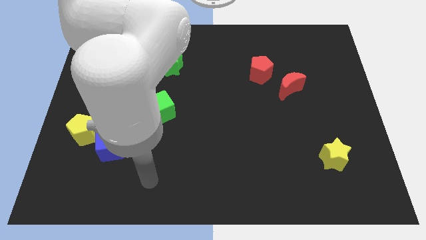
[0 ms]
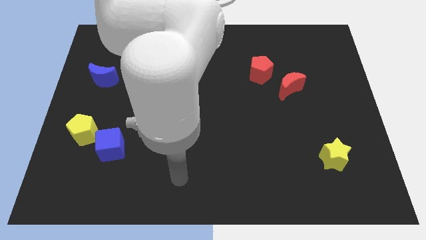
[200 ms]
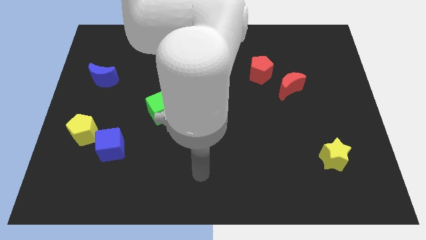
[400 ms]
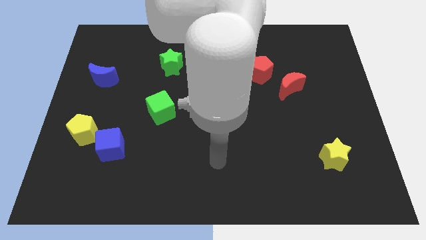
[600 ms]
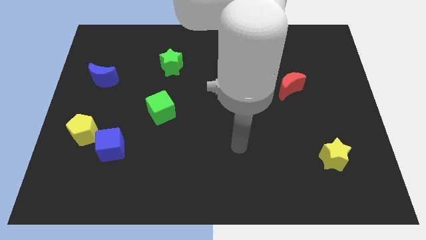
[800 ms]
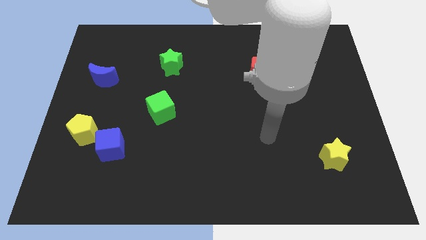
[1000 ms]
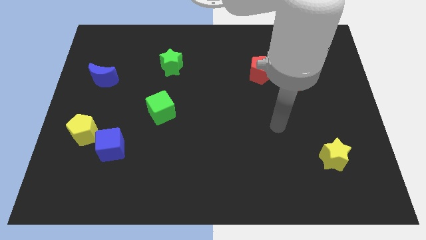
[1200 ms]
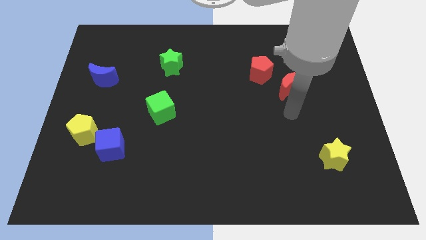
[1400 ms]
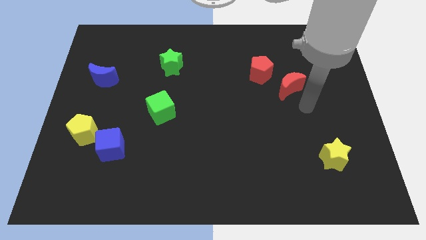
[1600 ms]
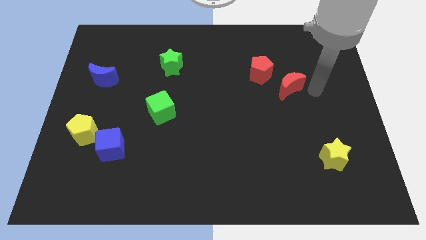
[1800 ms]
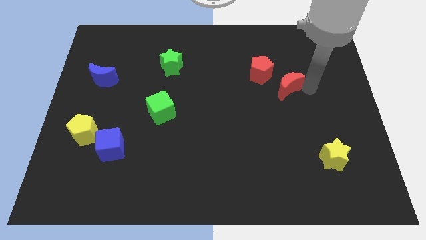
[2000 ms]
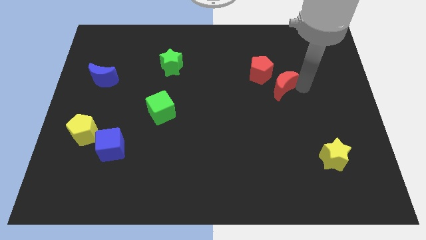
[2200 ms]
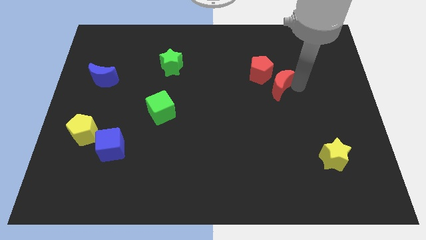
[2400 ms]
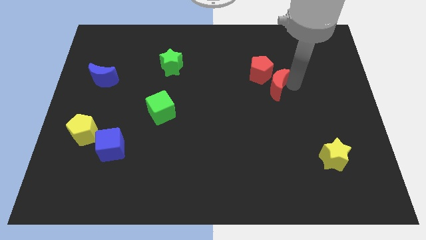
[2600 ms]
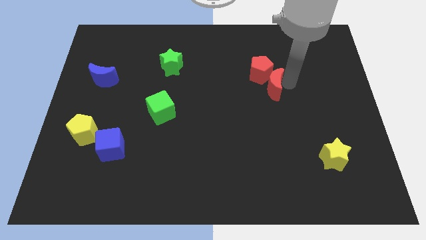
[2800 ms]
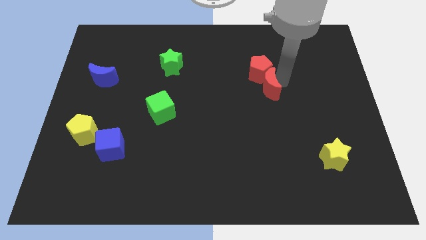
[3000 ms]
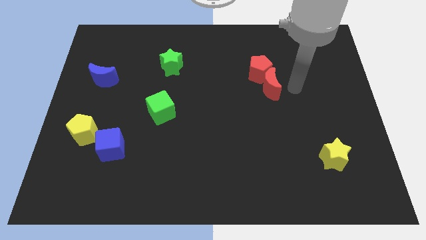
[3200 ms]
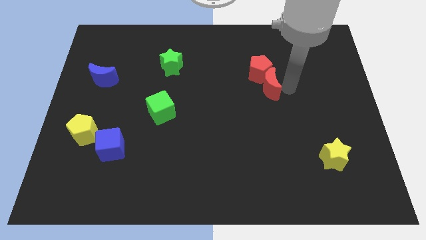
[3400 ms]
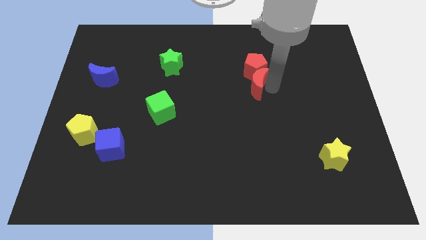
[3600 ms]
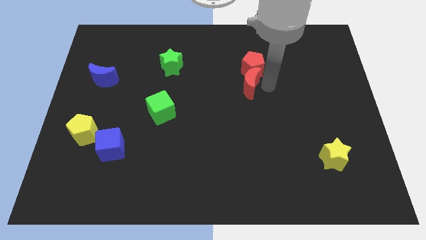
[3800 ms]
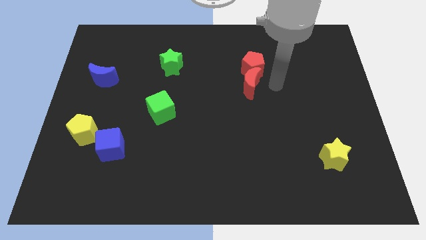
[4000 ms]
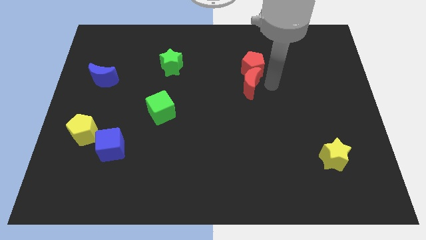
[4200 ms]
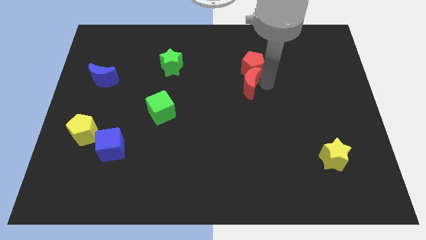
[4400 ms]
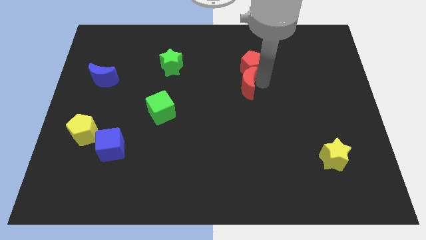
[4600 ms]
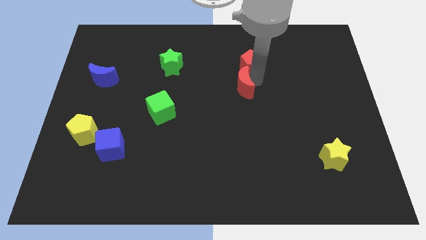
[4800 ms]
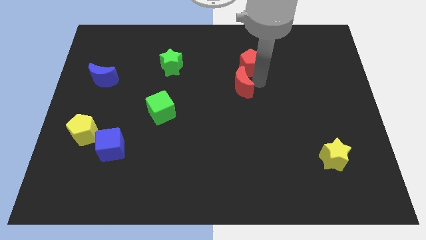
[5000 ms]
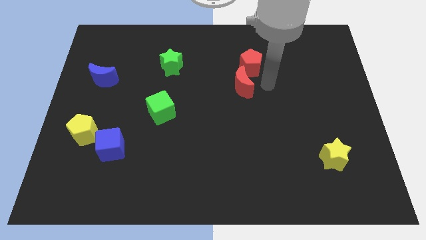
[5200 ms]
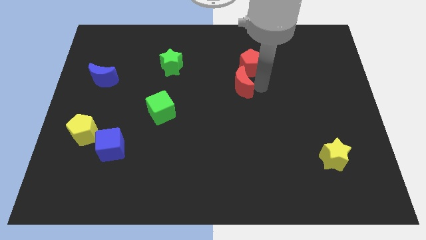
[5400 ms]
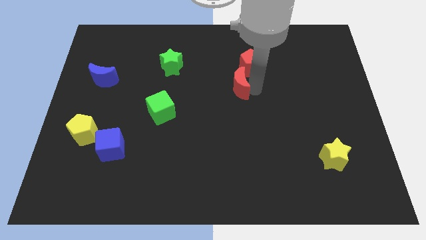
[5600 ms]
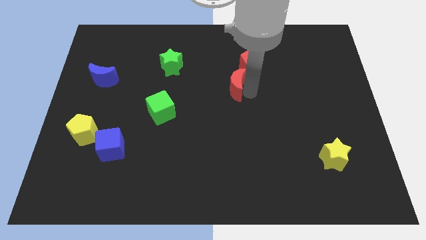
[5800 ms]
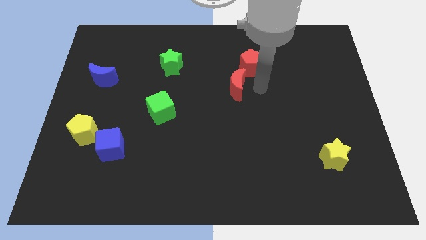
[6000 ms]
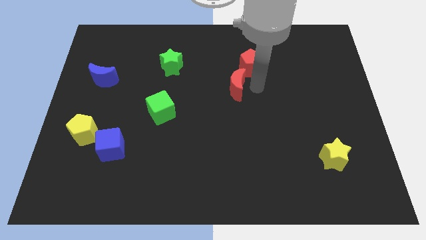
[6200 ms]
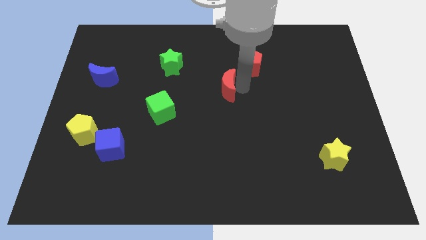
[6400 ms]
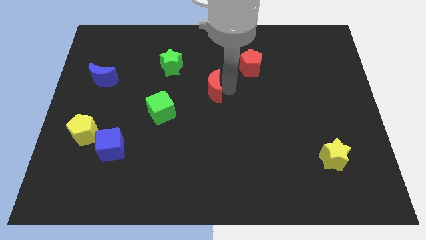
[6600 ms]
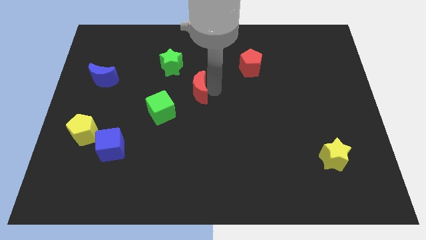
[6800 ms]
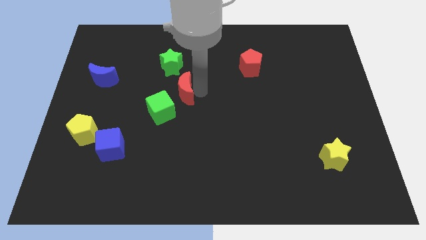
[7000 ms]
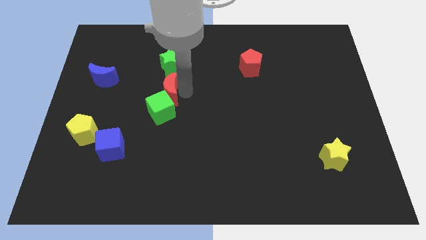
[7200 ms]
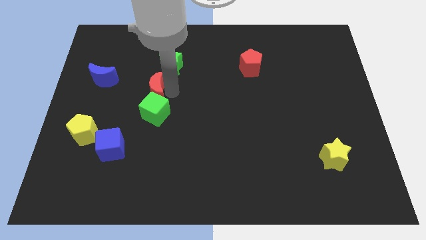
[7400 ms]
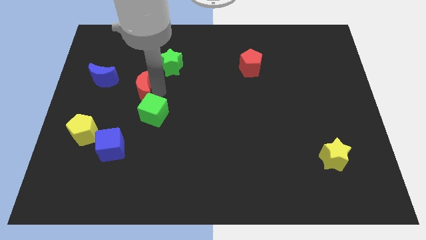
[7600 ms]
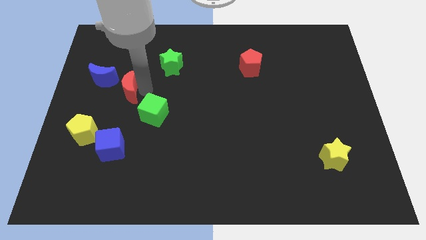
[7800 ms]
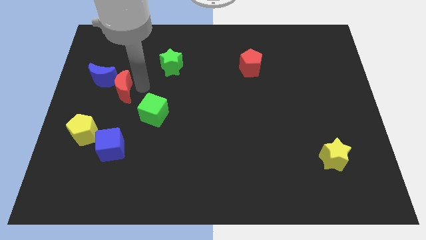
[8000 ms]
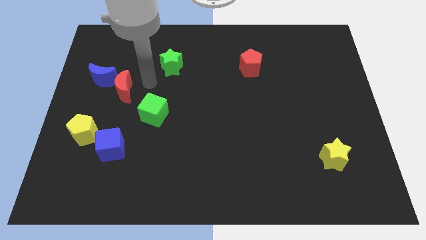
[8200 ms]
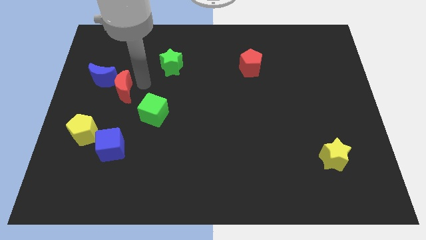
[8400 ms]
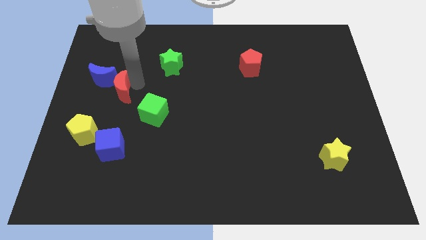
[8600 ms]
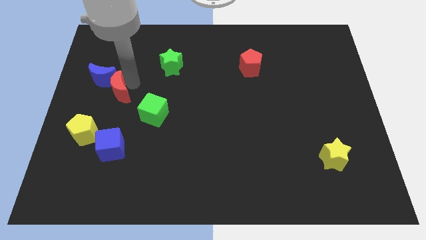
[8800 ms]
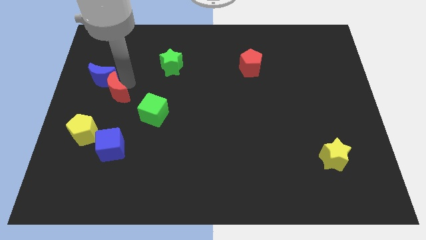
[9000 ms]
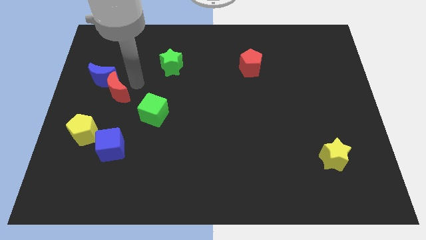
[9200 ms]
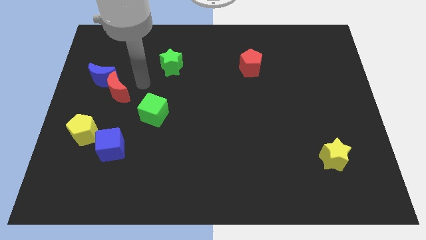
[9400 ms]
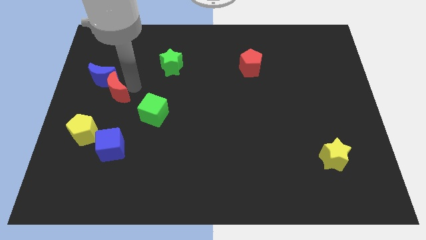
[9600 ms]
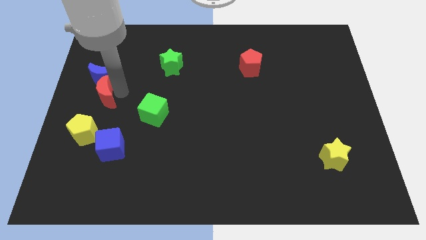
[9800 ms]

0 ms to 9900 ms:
move the red moon to the left side

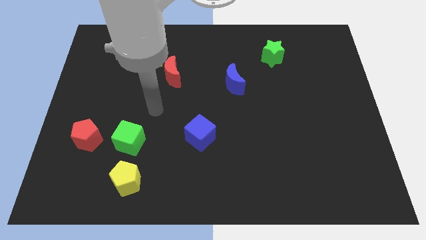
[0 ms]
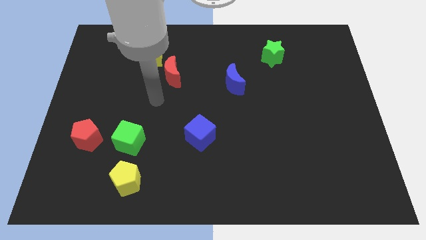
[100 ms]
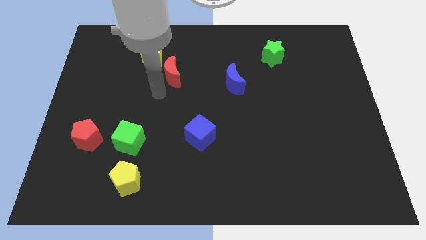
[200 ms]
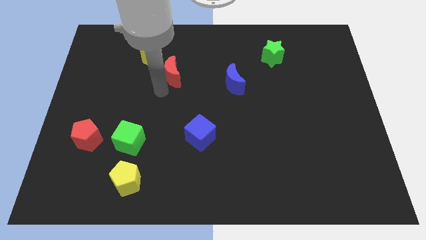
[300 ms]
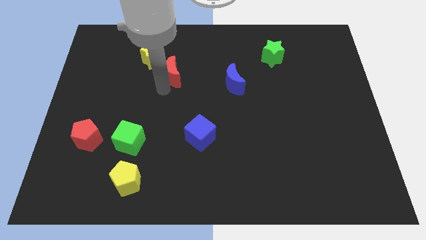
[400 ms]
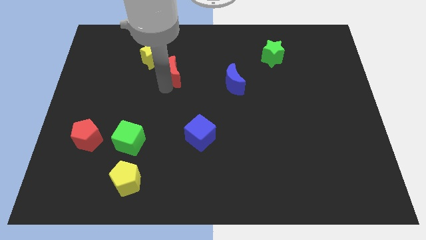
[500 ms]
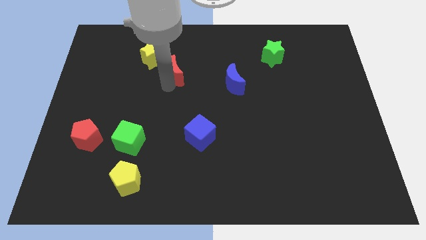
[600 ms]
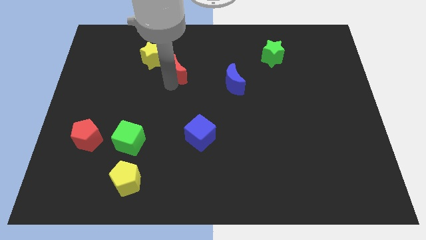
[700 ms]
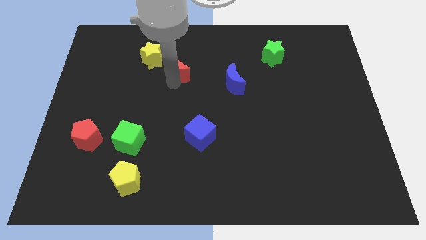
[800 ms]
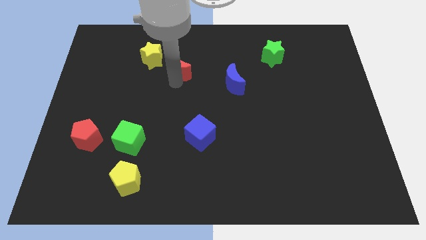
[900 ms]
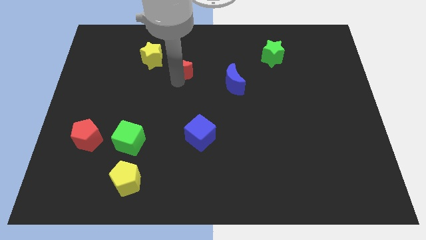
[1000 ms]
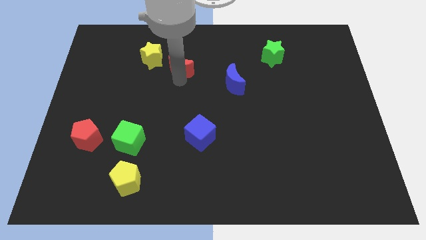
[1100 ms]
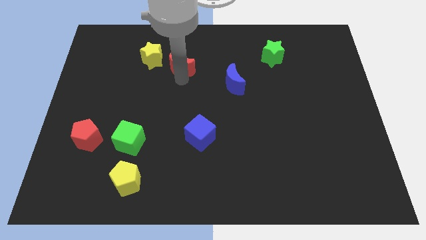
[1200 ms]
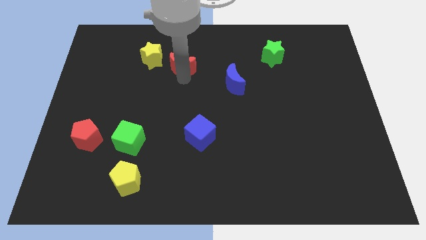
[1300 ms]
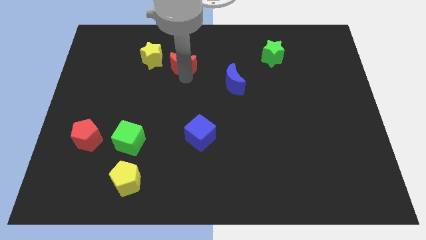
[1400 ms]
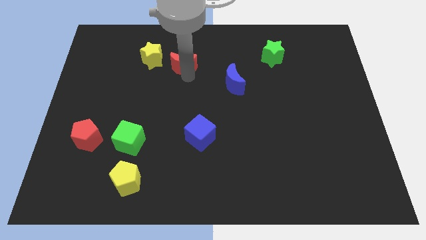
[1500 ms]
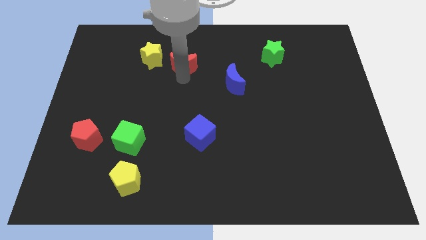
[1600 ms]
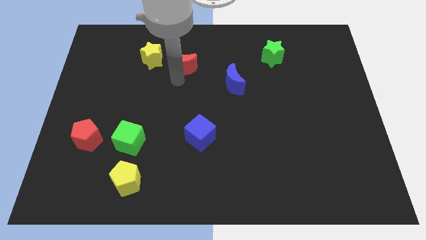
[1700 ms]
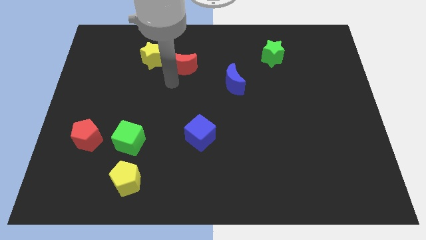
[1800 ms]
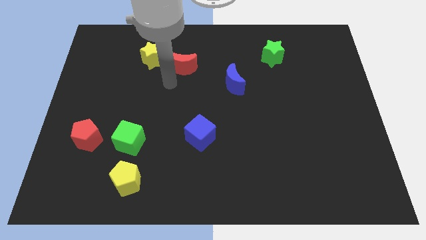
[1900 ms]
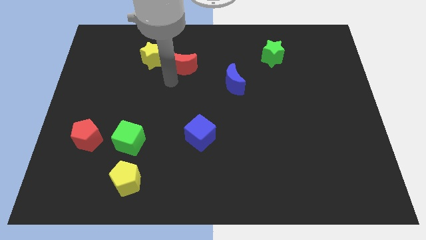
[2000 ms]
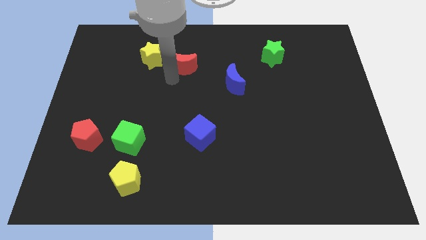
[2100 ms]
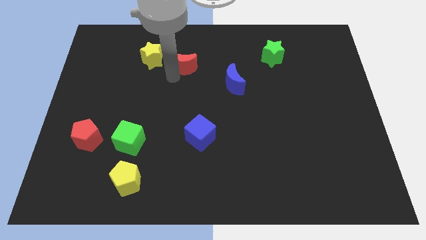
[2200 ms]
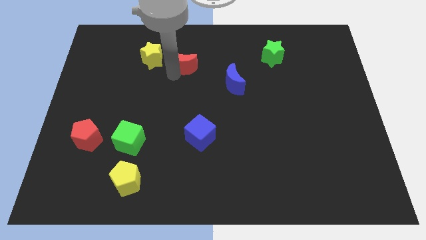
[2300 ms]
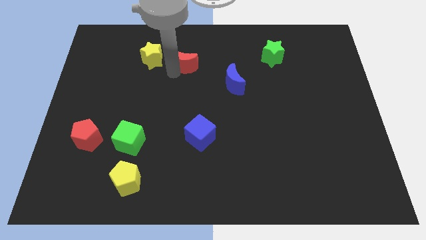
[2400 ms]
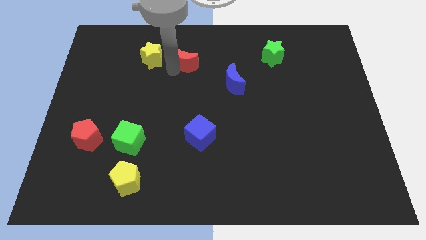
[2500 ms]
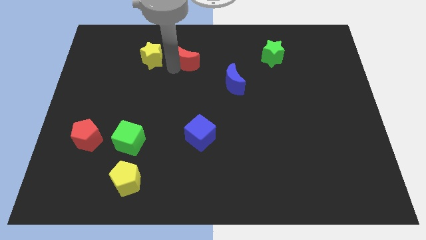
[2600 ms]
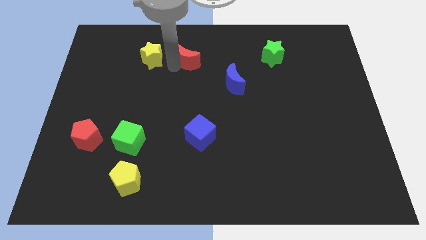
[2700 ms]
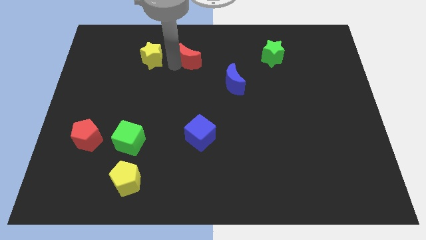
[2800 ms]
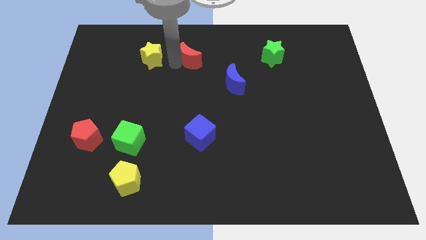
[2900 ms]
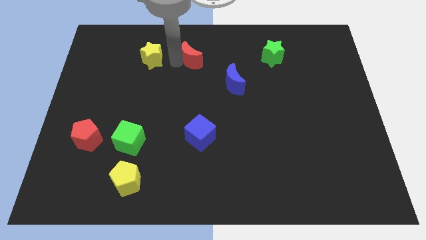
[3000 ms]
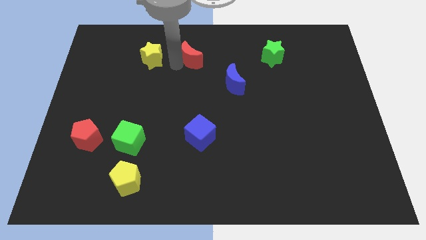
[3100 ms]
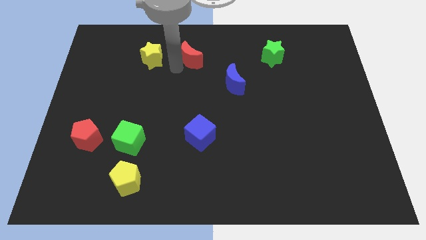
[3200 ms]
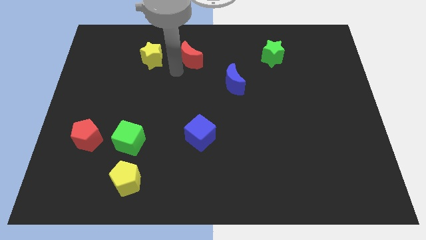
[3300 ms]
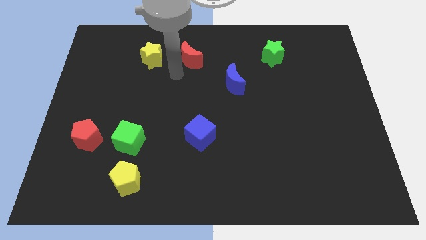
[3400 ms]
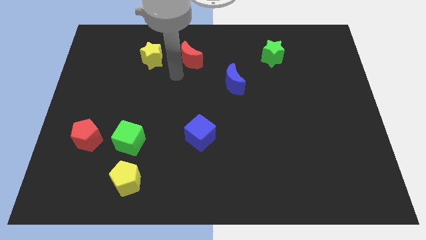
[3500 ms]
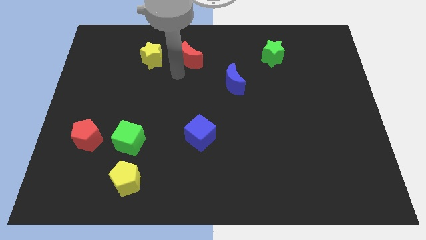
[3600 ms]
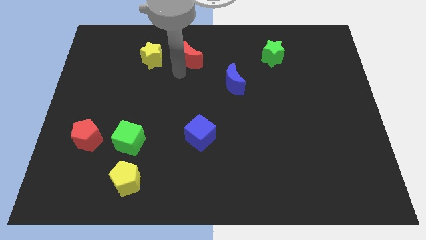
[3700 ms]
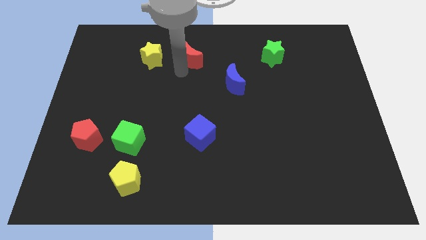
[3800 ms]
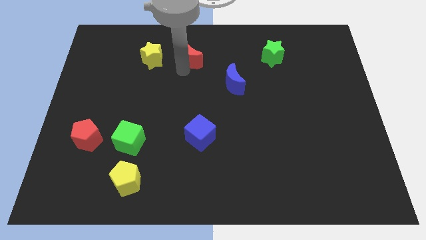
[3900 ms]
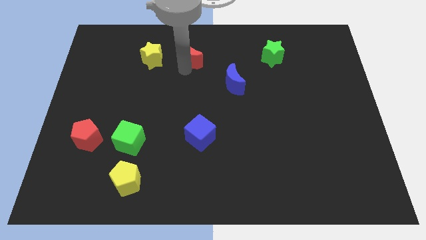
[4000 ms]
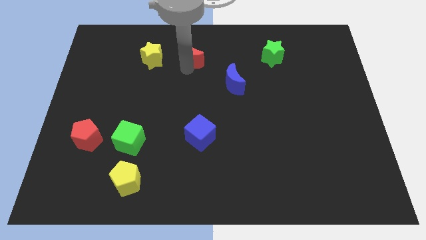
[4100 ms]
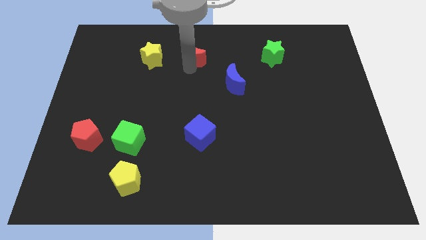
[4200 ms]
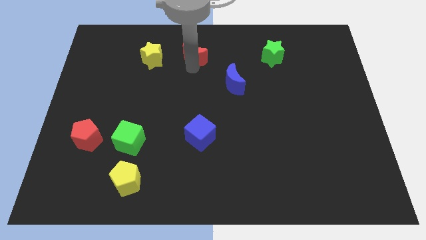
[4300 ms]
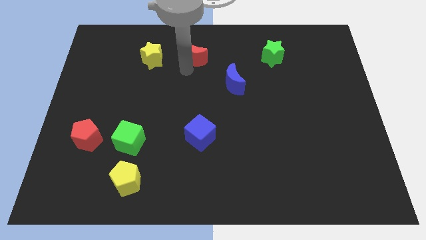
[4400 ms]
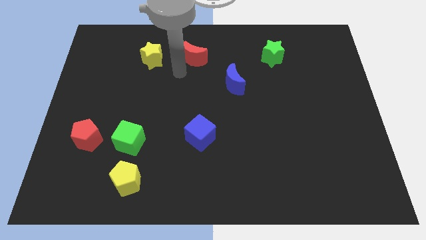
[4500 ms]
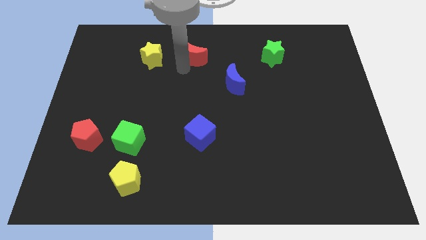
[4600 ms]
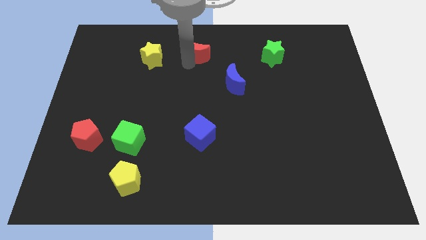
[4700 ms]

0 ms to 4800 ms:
move the red moon to the towards your base
